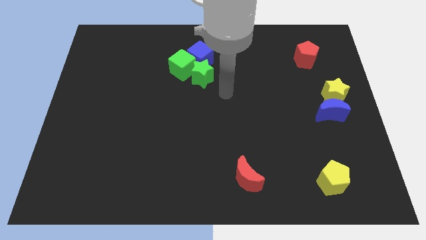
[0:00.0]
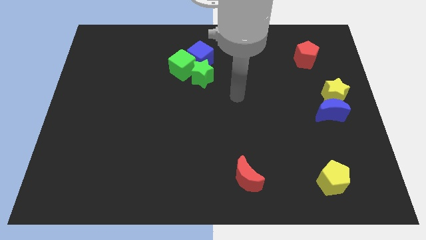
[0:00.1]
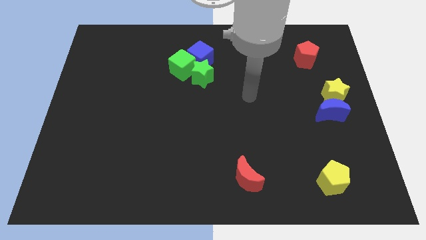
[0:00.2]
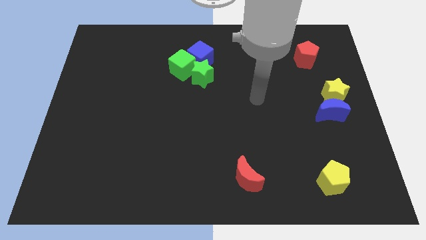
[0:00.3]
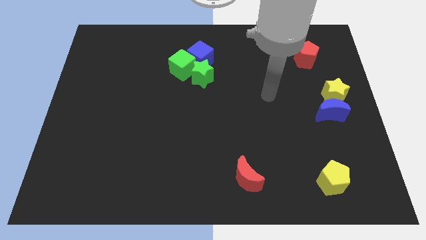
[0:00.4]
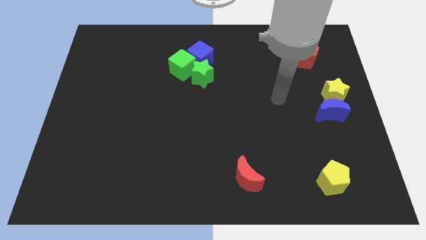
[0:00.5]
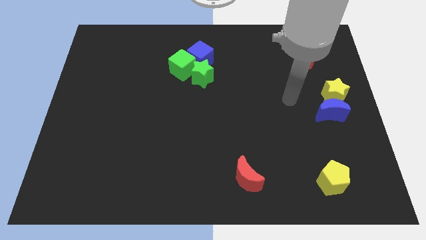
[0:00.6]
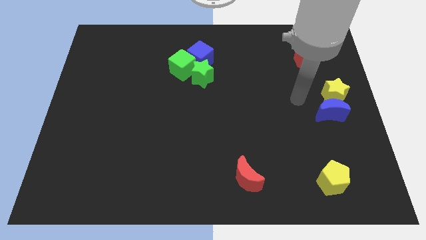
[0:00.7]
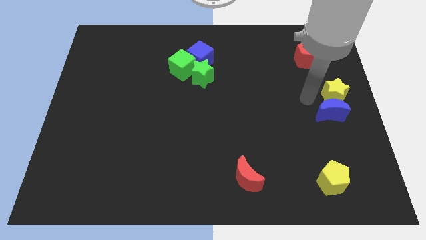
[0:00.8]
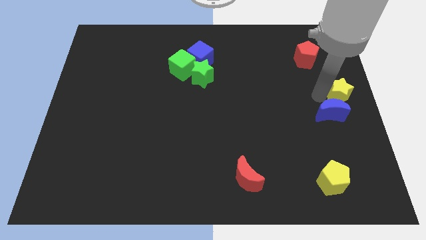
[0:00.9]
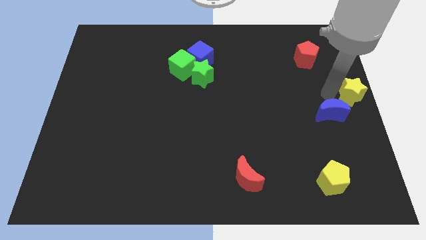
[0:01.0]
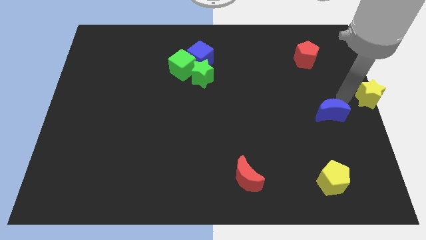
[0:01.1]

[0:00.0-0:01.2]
move the blue moon away from the yellow star

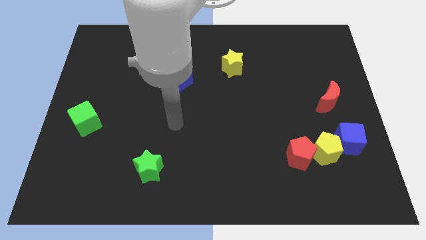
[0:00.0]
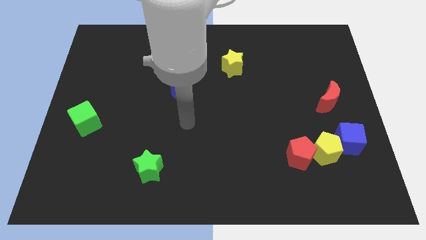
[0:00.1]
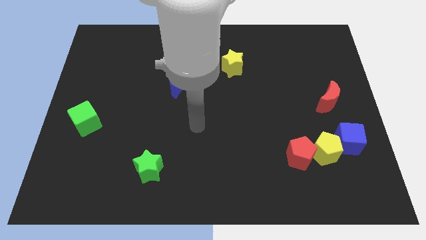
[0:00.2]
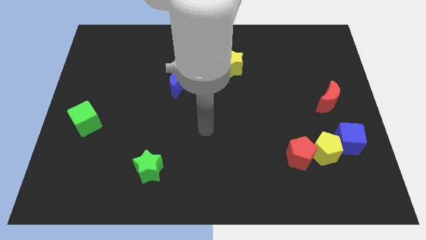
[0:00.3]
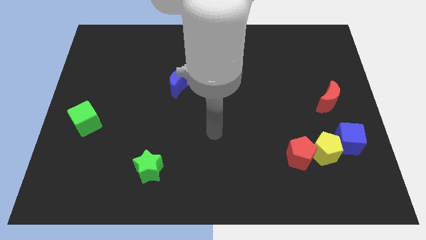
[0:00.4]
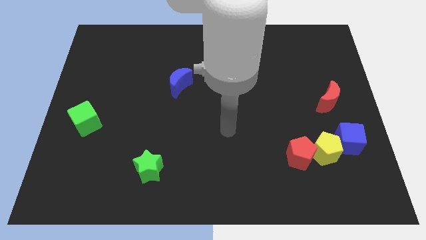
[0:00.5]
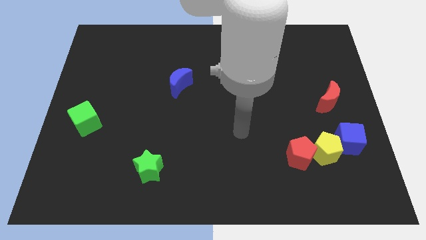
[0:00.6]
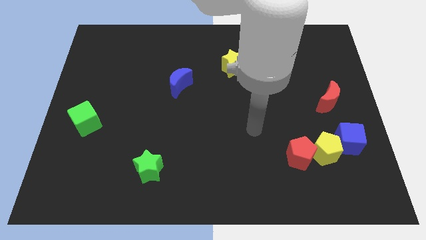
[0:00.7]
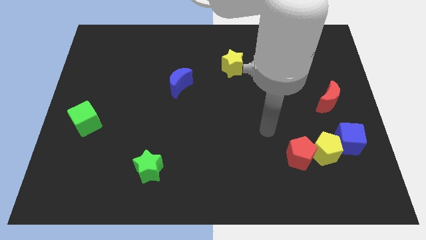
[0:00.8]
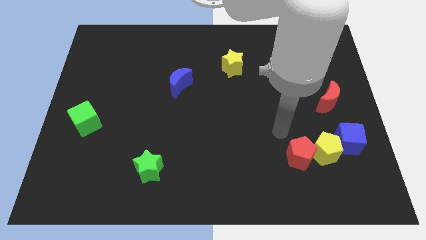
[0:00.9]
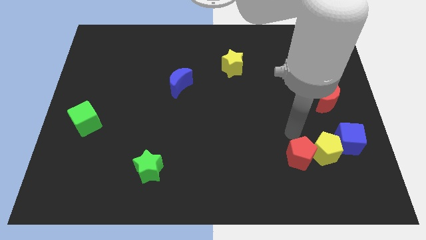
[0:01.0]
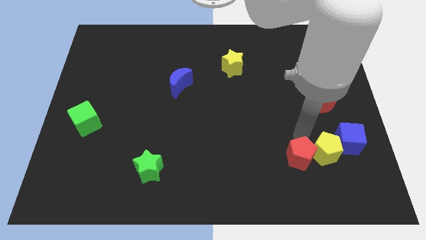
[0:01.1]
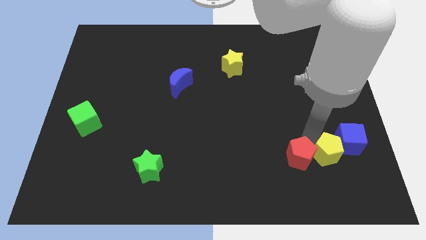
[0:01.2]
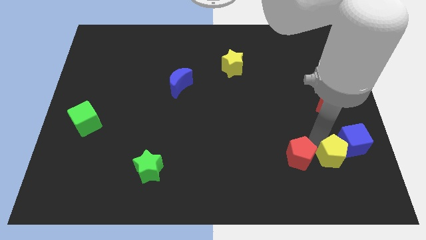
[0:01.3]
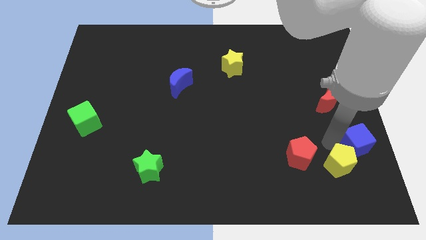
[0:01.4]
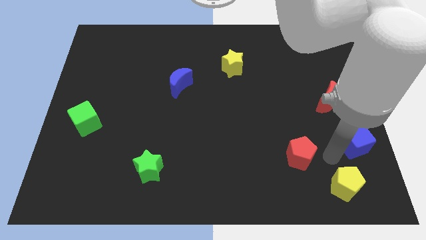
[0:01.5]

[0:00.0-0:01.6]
move the red pentagon away from the yellow pentagon

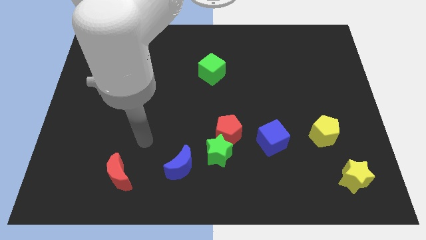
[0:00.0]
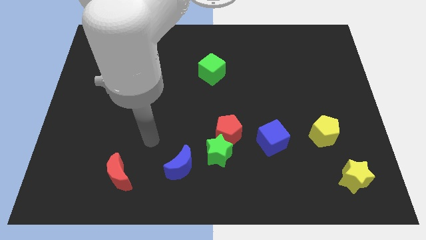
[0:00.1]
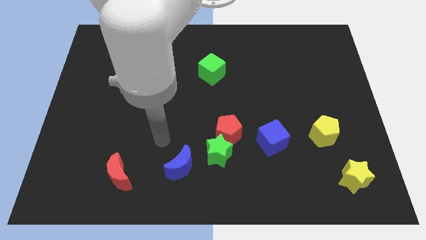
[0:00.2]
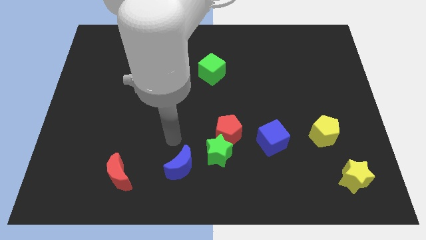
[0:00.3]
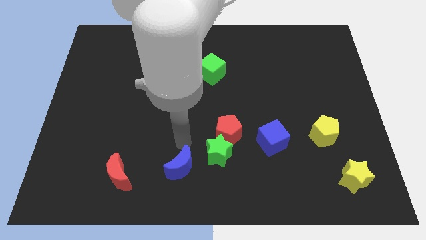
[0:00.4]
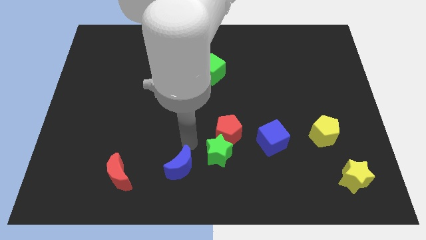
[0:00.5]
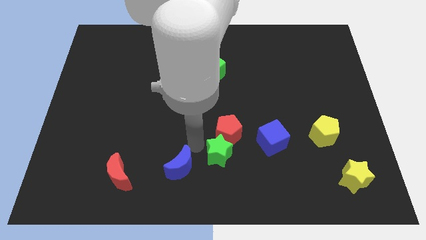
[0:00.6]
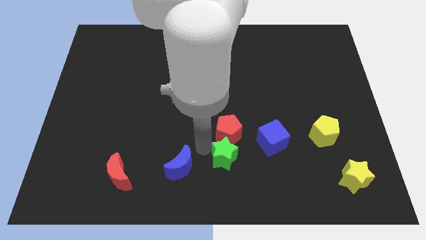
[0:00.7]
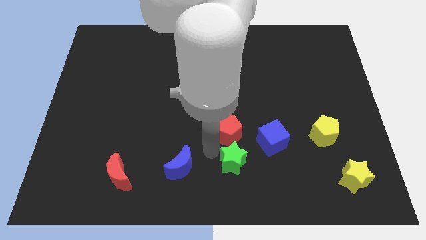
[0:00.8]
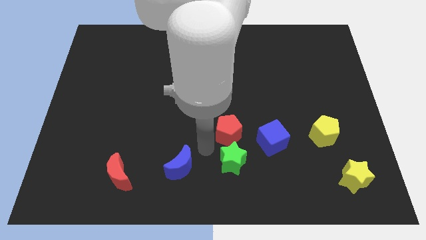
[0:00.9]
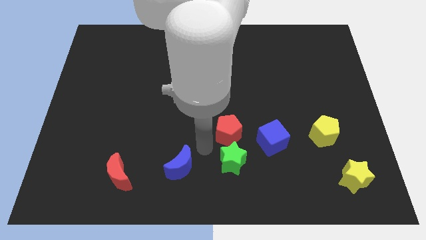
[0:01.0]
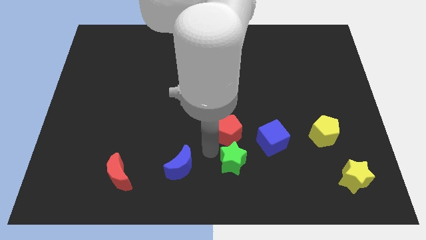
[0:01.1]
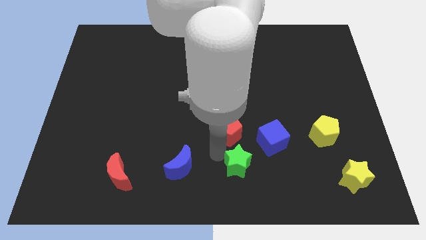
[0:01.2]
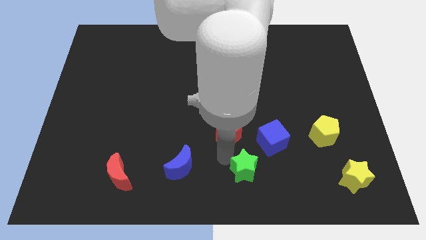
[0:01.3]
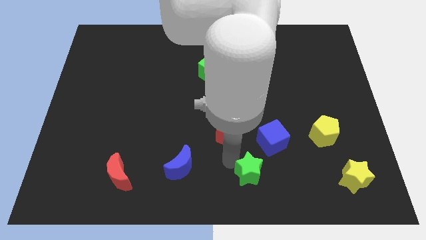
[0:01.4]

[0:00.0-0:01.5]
separate the green star from the red pentagon and blue moon

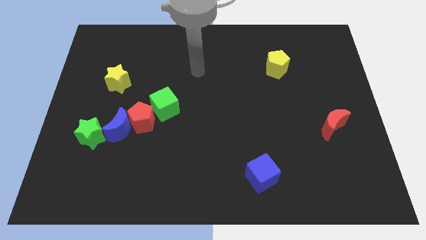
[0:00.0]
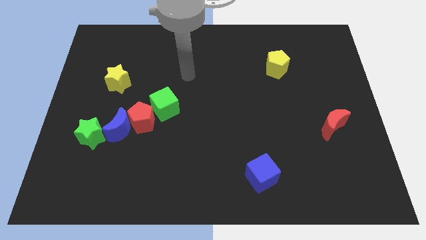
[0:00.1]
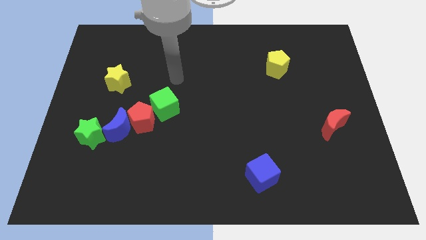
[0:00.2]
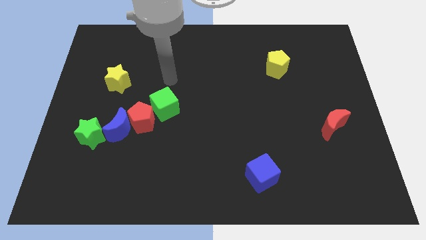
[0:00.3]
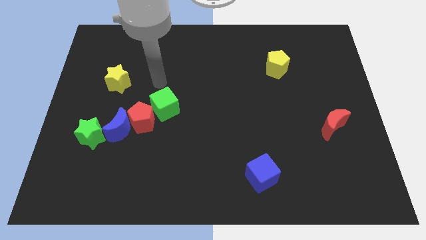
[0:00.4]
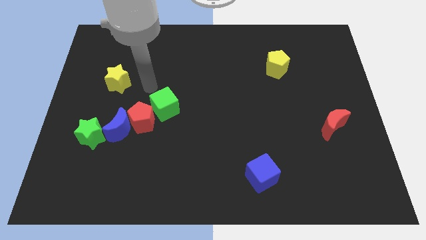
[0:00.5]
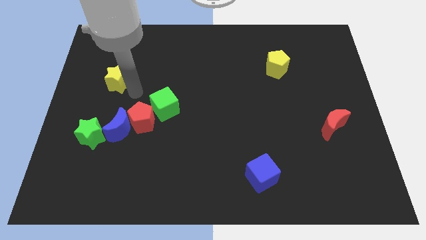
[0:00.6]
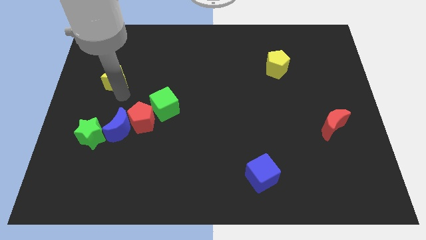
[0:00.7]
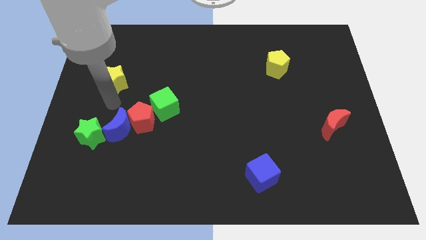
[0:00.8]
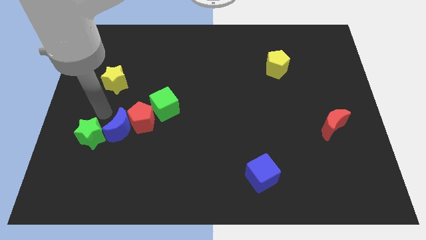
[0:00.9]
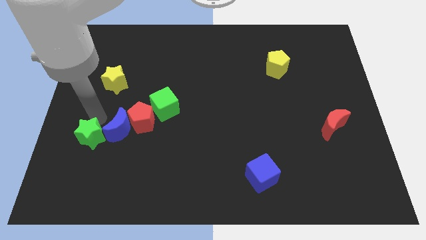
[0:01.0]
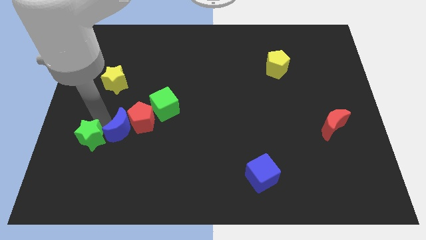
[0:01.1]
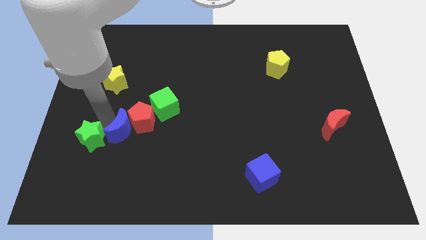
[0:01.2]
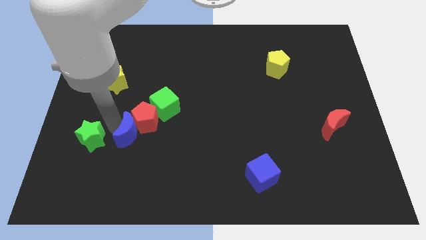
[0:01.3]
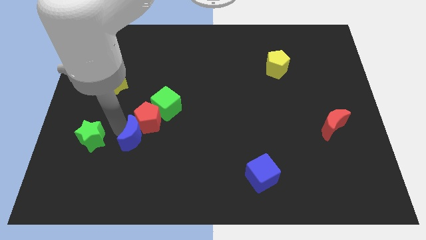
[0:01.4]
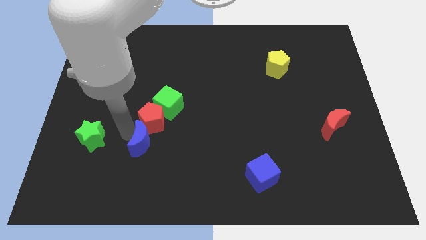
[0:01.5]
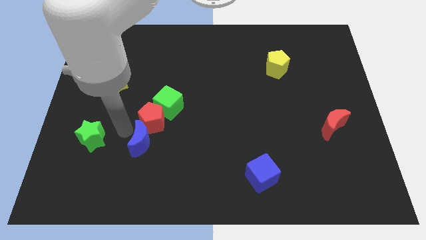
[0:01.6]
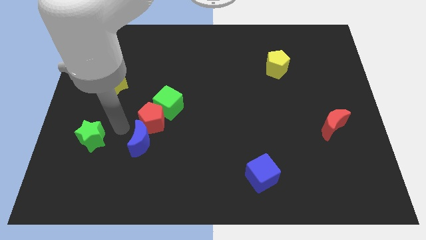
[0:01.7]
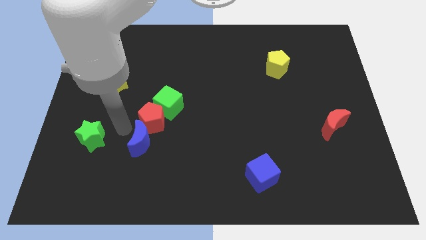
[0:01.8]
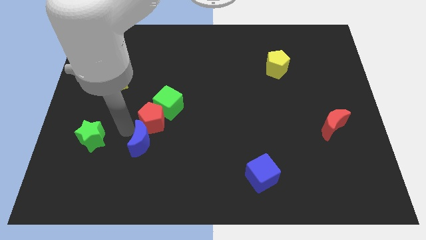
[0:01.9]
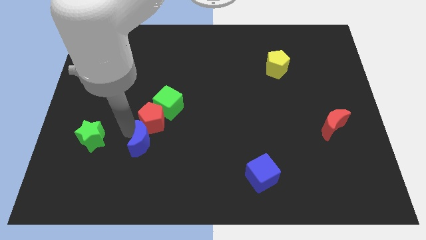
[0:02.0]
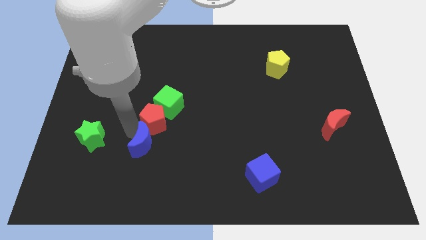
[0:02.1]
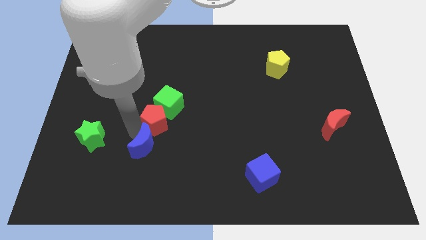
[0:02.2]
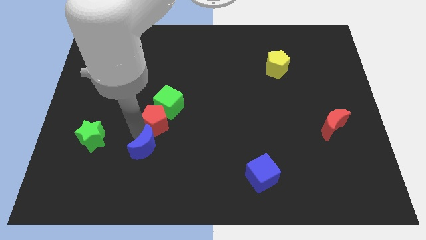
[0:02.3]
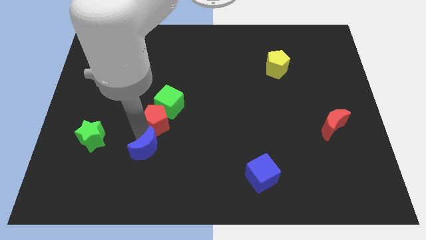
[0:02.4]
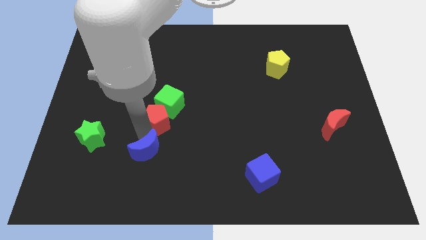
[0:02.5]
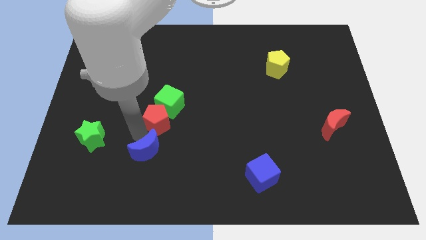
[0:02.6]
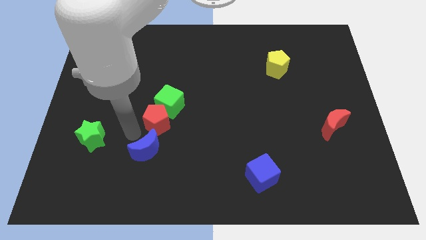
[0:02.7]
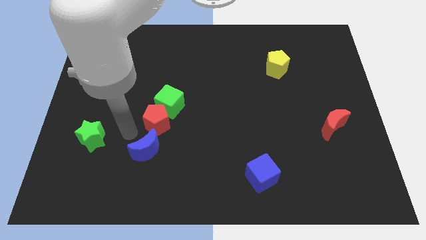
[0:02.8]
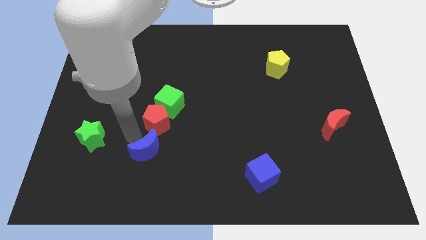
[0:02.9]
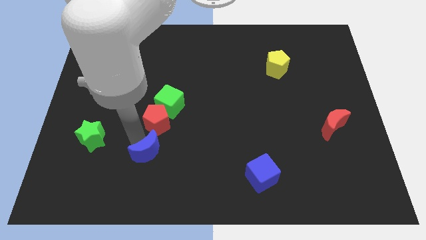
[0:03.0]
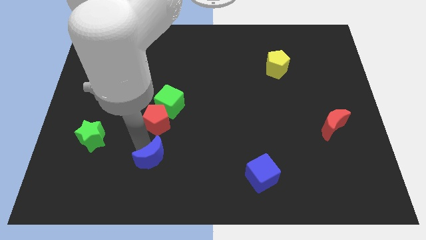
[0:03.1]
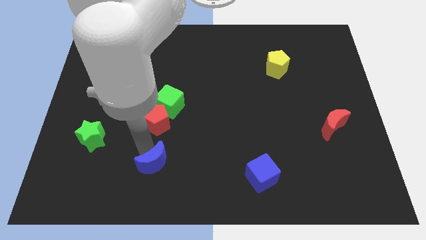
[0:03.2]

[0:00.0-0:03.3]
separate the blue moon from the red pentagon and green star

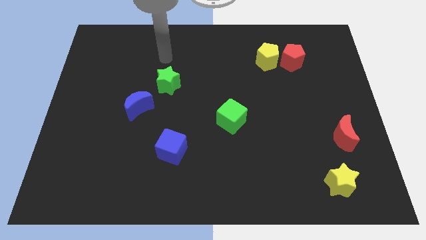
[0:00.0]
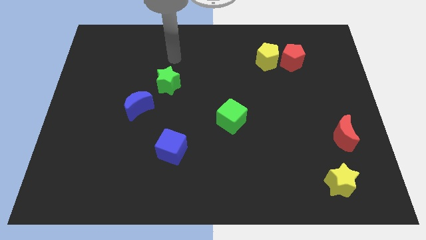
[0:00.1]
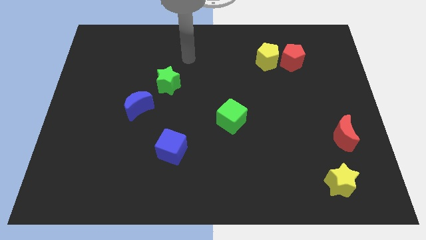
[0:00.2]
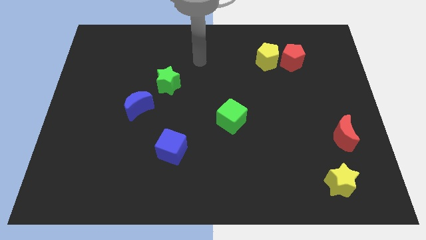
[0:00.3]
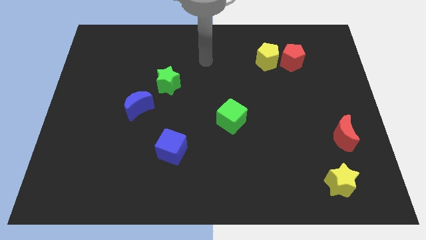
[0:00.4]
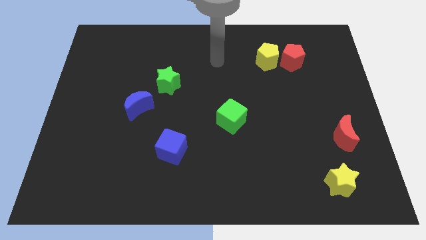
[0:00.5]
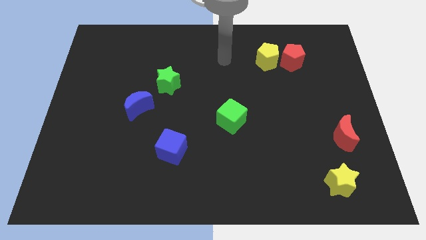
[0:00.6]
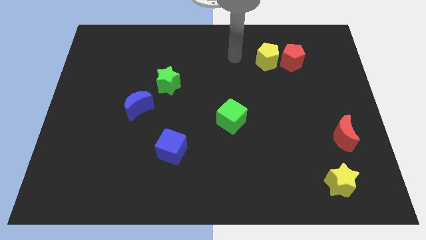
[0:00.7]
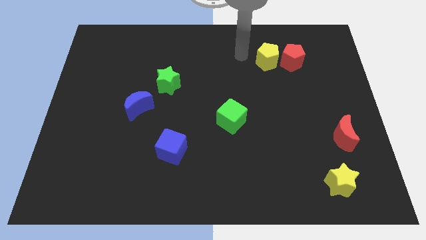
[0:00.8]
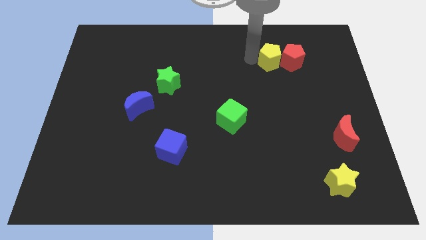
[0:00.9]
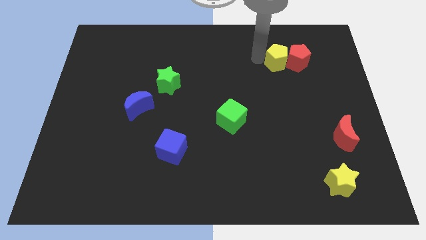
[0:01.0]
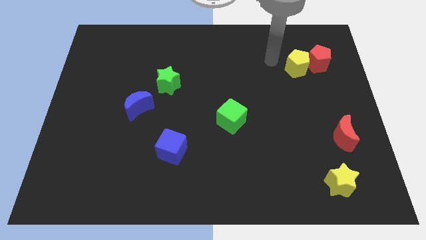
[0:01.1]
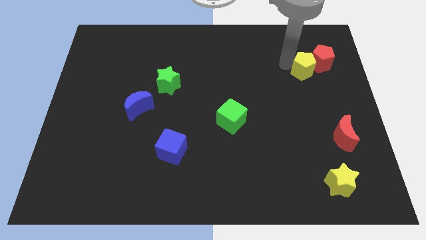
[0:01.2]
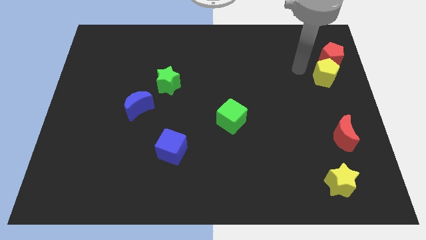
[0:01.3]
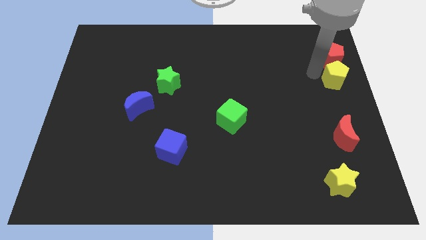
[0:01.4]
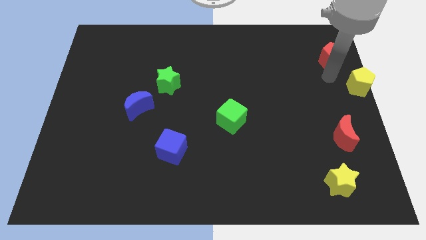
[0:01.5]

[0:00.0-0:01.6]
pull the red pentagon apart from the yellow pentagon

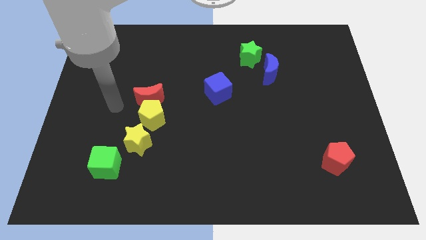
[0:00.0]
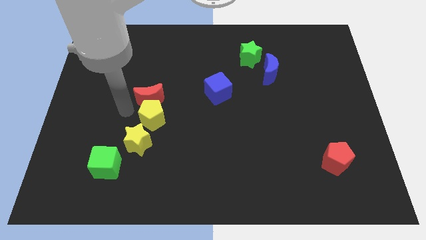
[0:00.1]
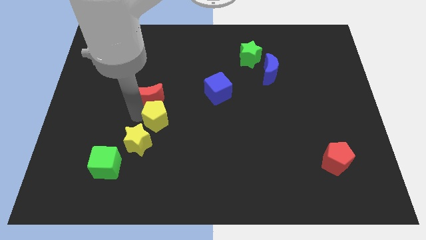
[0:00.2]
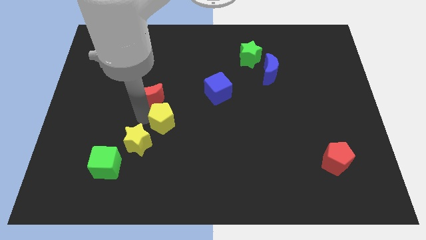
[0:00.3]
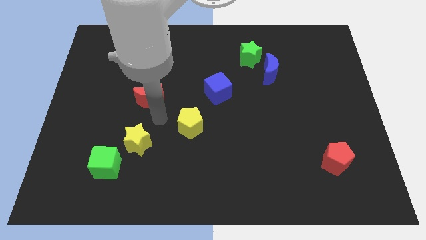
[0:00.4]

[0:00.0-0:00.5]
move the red moon away from the yellow pentagon
